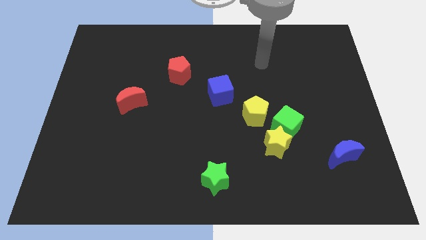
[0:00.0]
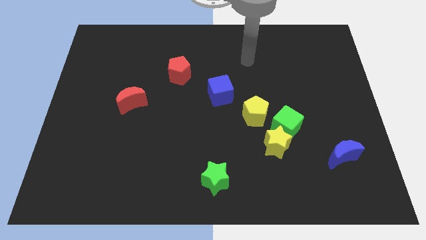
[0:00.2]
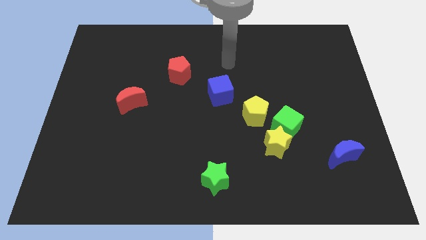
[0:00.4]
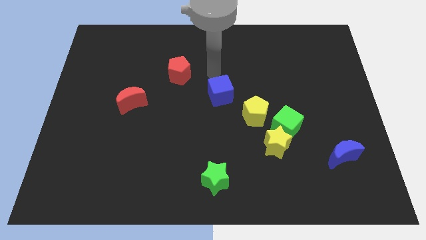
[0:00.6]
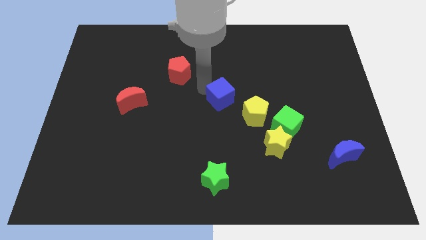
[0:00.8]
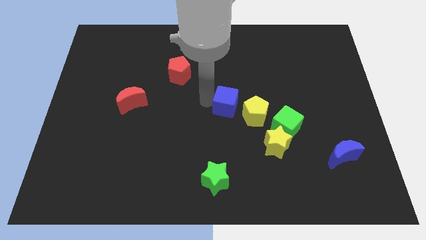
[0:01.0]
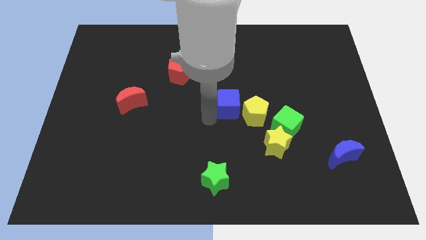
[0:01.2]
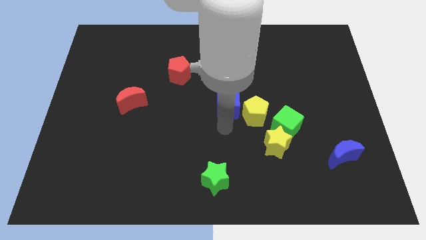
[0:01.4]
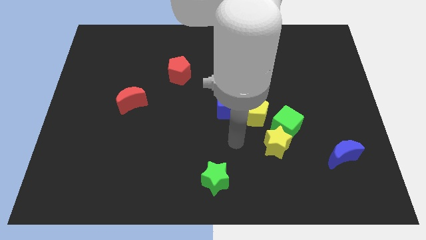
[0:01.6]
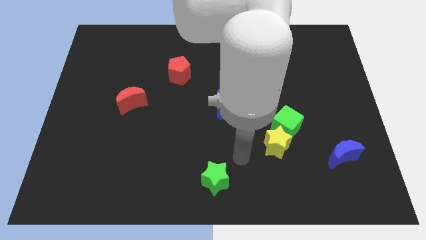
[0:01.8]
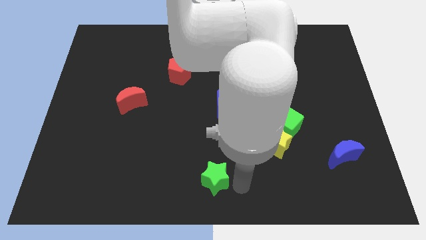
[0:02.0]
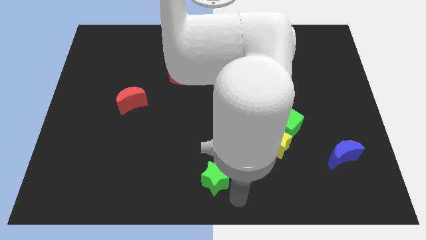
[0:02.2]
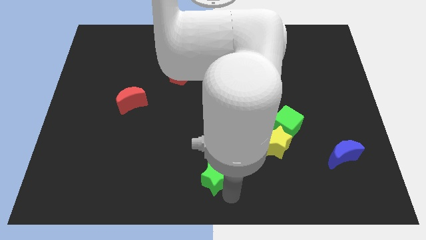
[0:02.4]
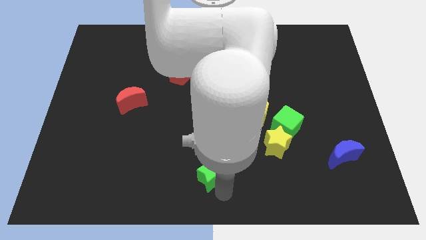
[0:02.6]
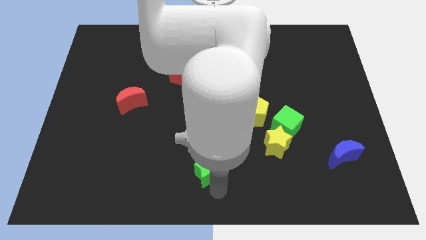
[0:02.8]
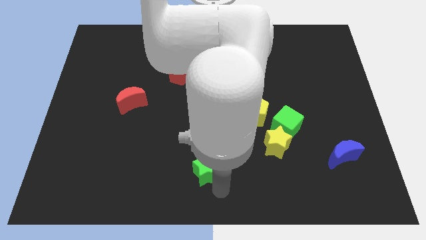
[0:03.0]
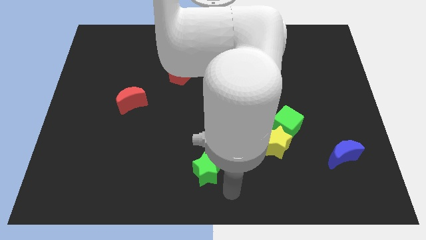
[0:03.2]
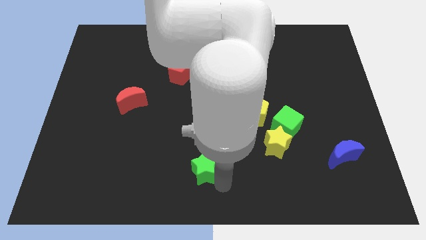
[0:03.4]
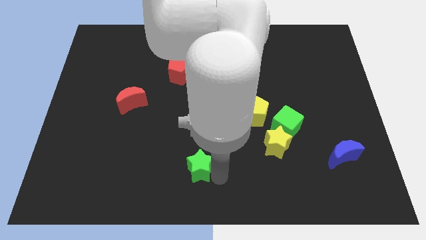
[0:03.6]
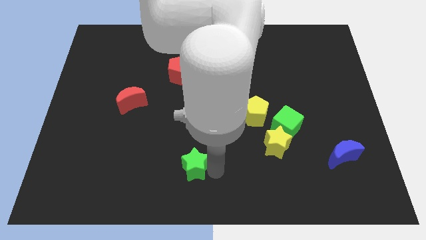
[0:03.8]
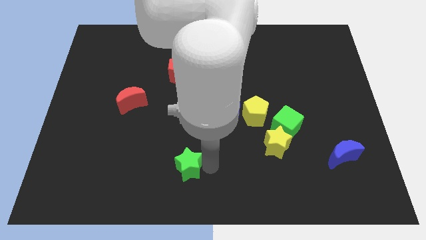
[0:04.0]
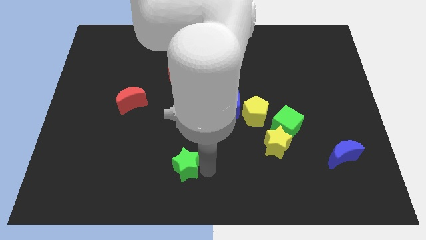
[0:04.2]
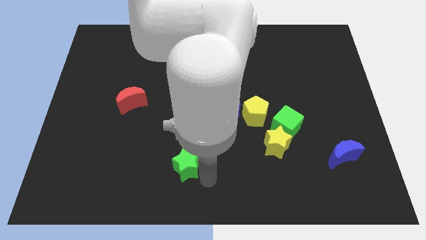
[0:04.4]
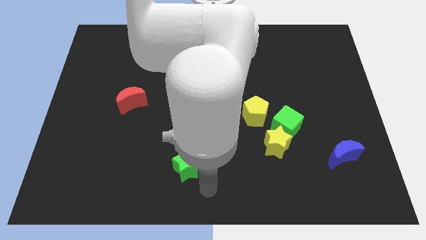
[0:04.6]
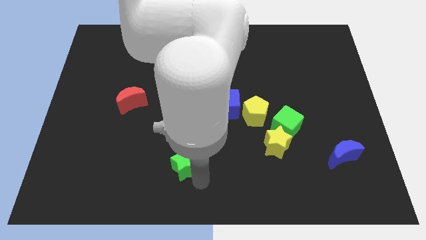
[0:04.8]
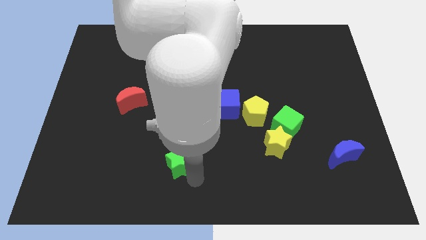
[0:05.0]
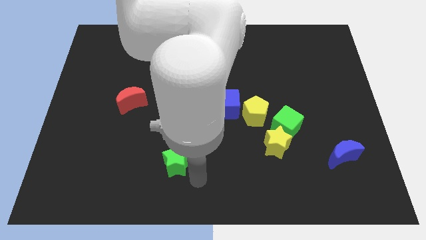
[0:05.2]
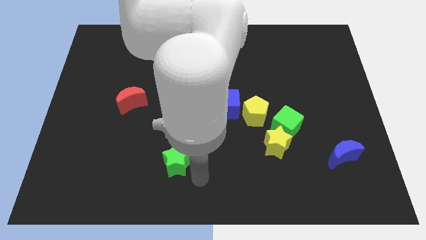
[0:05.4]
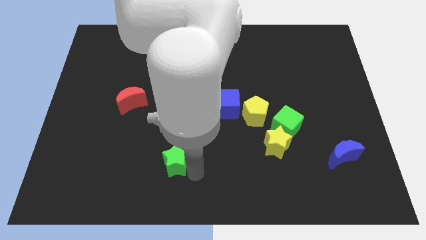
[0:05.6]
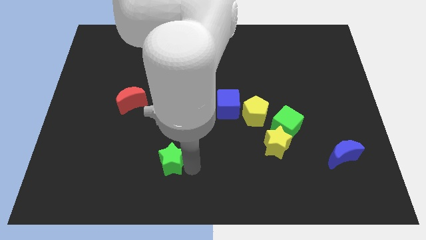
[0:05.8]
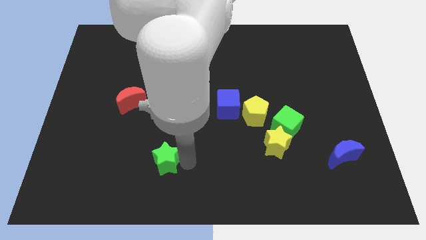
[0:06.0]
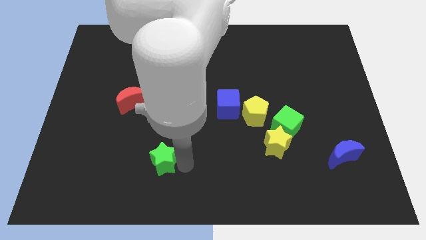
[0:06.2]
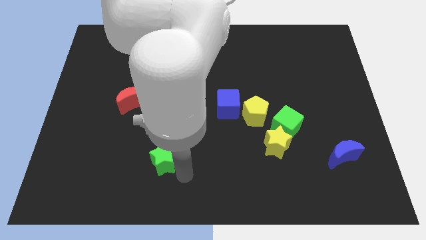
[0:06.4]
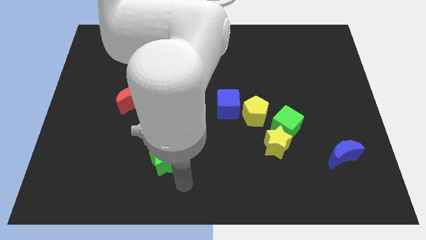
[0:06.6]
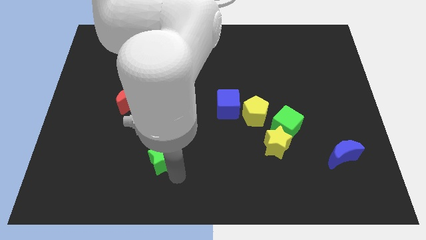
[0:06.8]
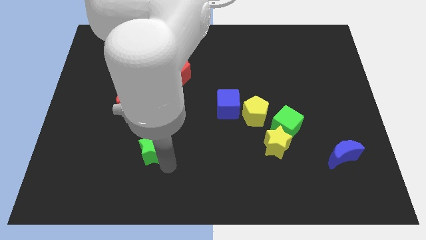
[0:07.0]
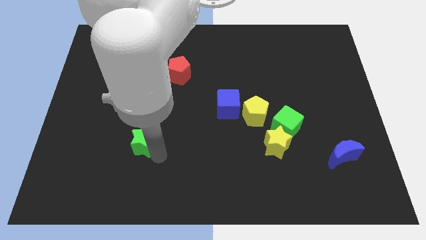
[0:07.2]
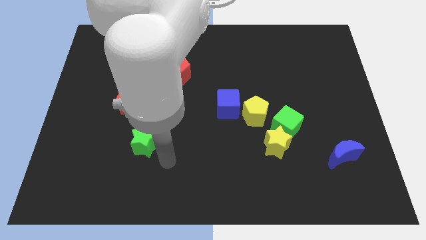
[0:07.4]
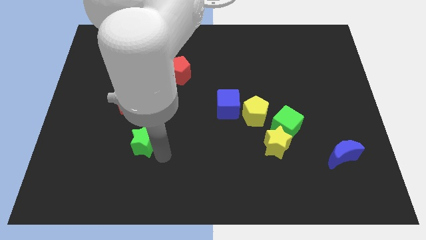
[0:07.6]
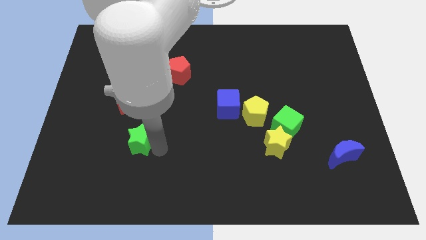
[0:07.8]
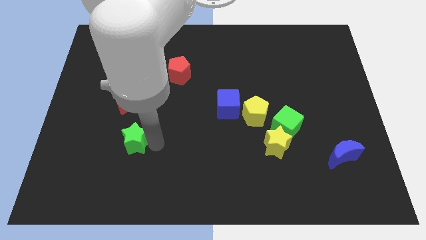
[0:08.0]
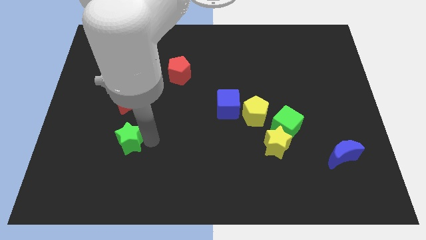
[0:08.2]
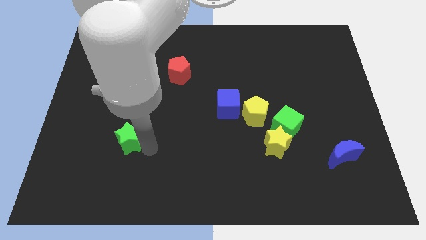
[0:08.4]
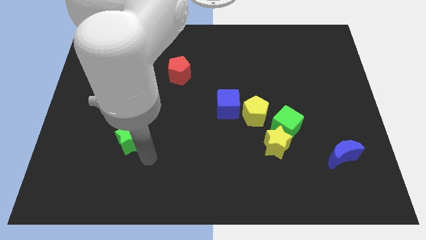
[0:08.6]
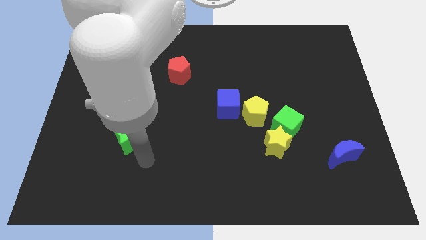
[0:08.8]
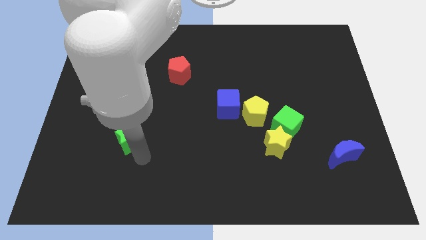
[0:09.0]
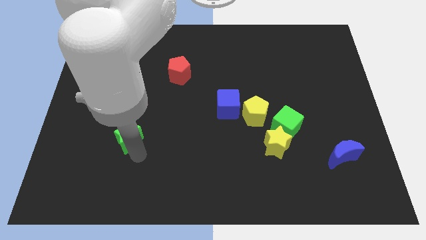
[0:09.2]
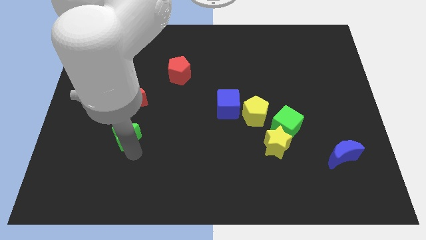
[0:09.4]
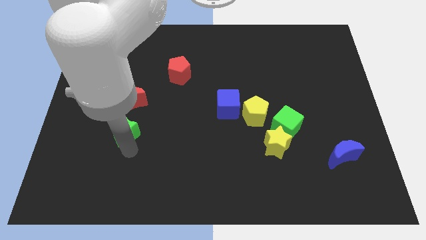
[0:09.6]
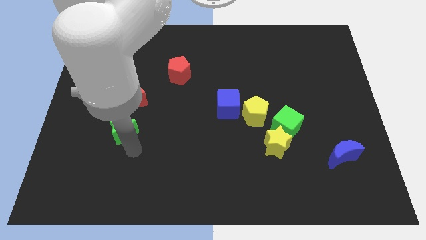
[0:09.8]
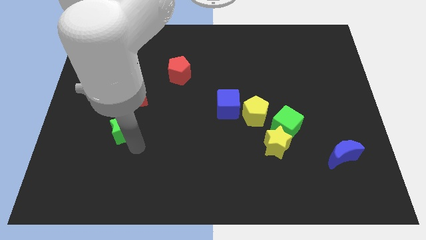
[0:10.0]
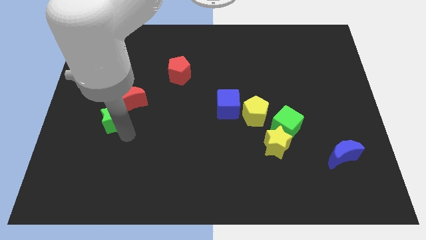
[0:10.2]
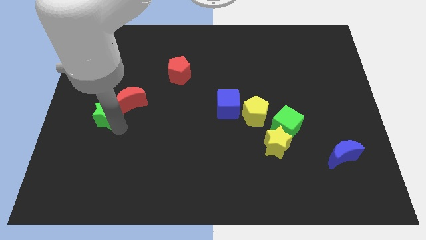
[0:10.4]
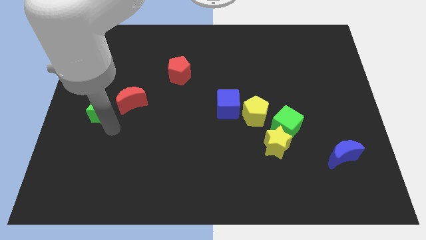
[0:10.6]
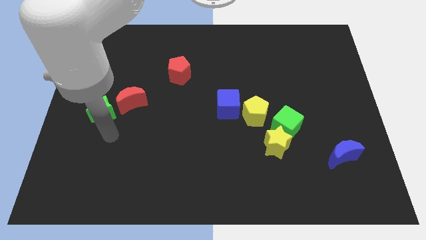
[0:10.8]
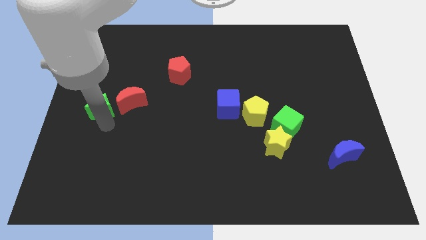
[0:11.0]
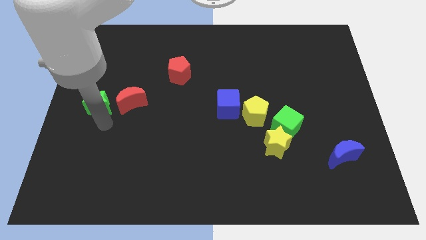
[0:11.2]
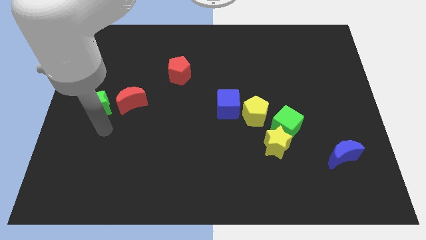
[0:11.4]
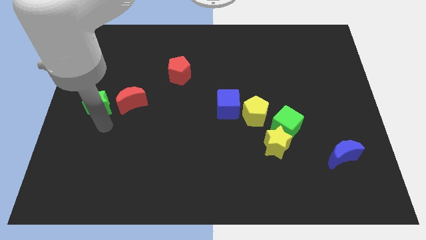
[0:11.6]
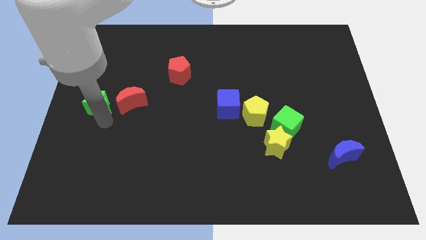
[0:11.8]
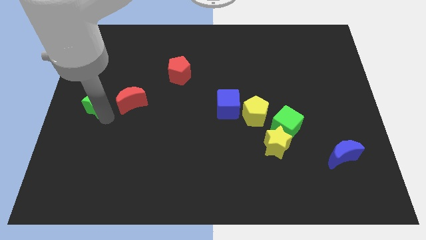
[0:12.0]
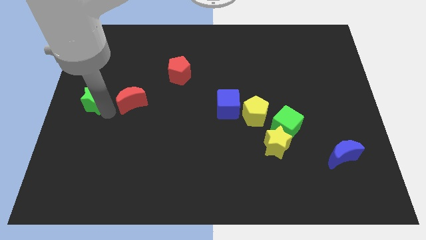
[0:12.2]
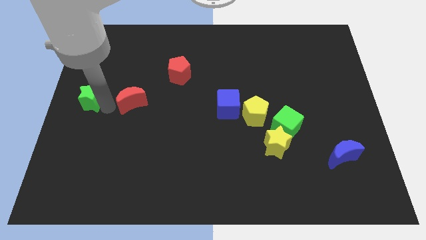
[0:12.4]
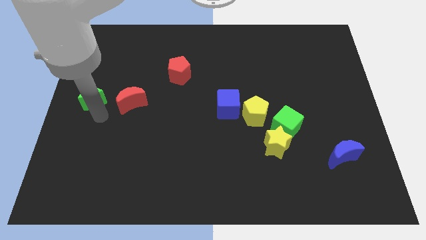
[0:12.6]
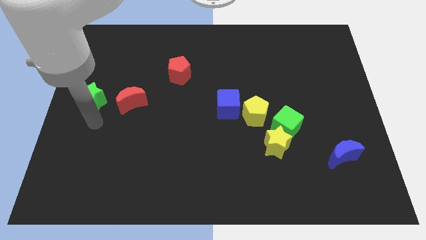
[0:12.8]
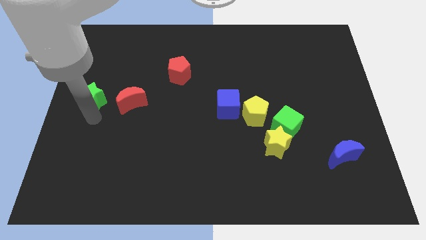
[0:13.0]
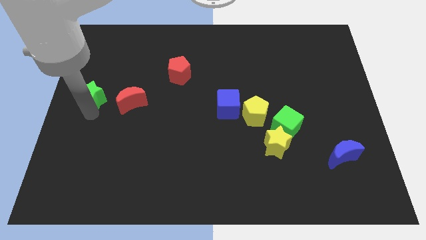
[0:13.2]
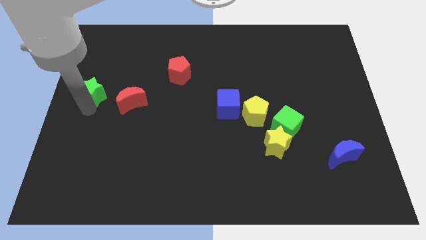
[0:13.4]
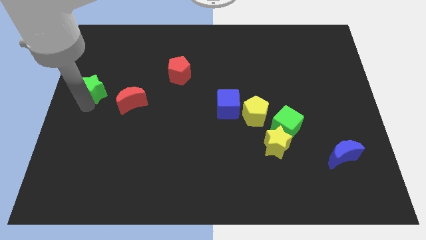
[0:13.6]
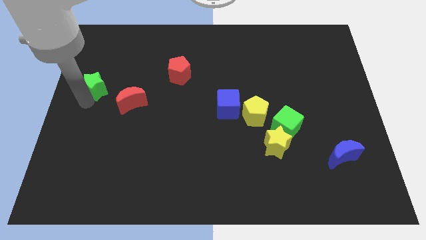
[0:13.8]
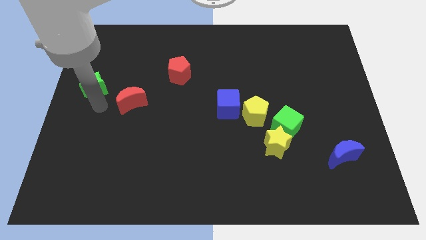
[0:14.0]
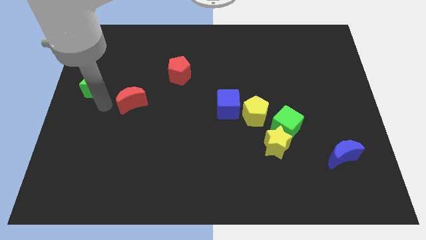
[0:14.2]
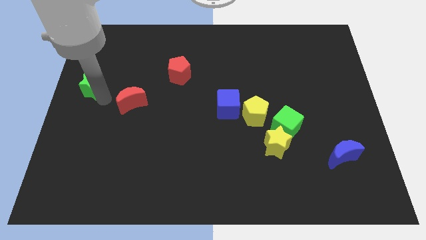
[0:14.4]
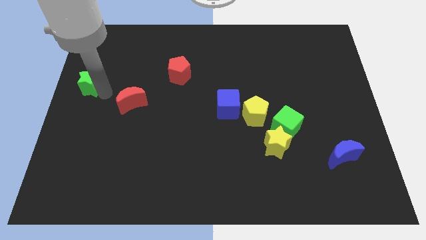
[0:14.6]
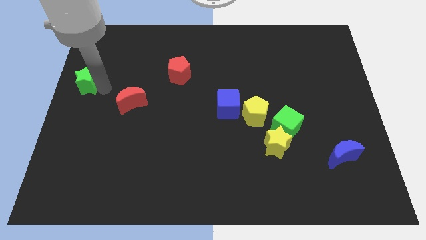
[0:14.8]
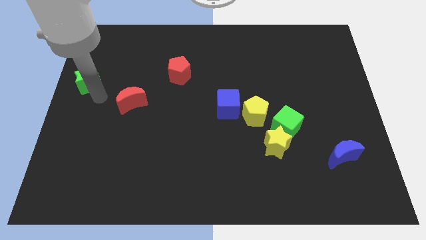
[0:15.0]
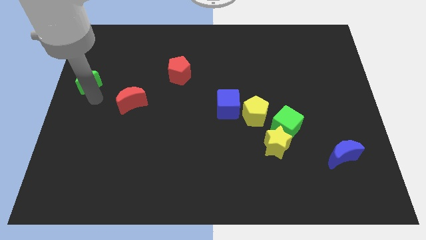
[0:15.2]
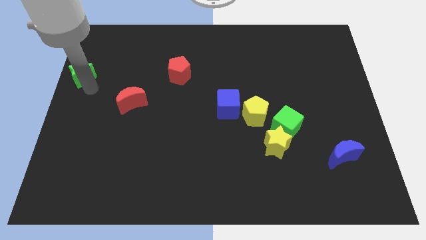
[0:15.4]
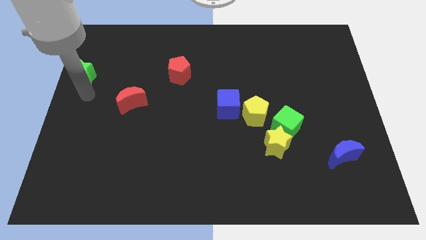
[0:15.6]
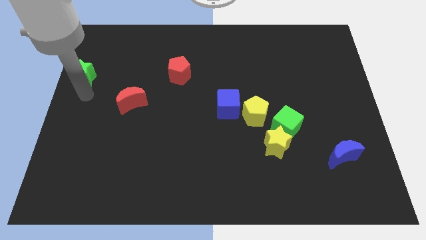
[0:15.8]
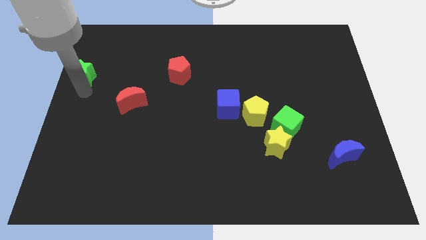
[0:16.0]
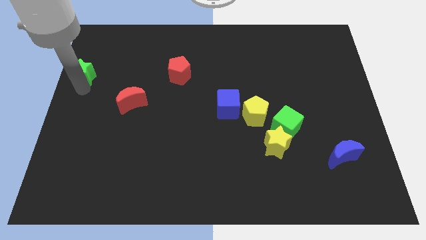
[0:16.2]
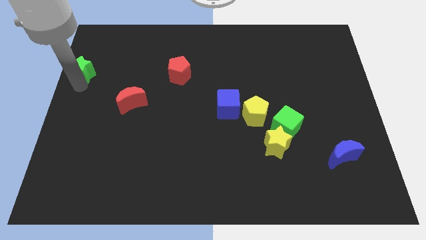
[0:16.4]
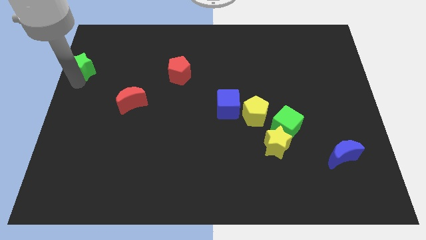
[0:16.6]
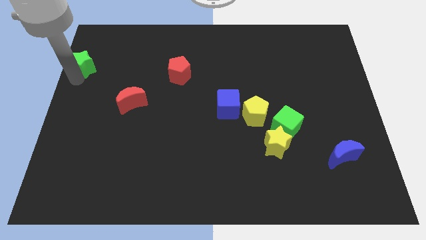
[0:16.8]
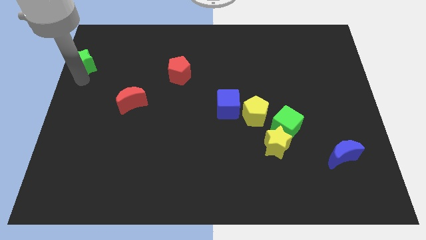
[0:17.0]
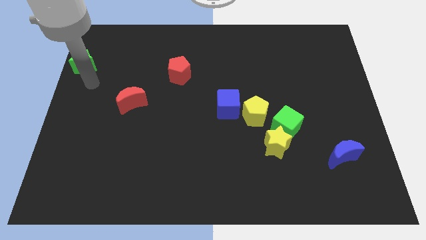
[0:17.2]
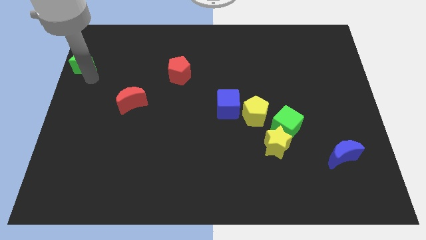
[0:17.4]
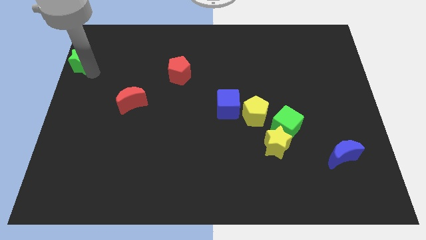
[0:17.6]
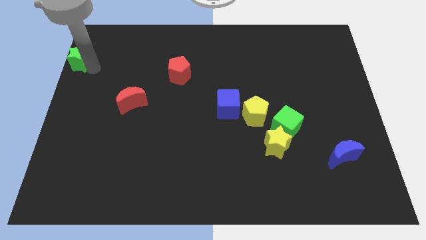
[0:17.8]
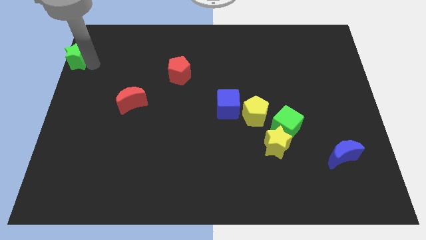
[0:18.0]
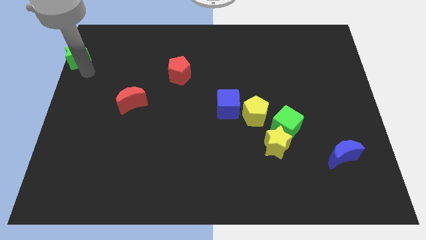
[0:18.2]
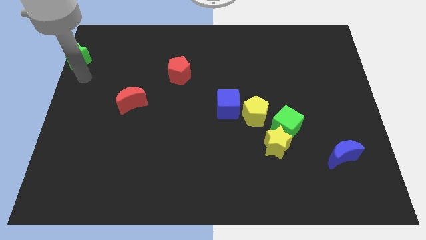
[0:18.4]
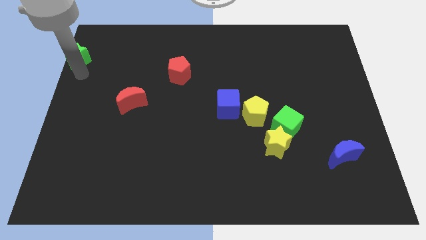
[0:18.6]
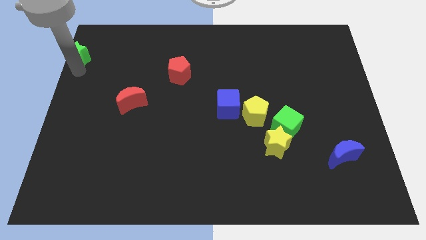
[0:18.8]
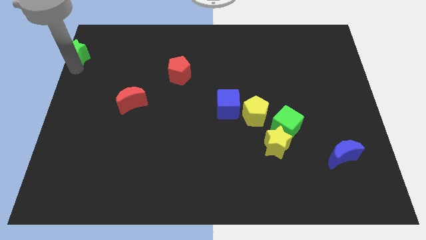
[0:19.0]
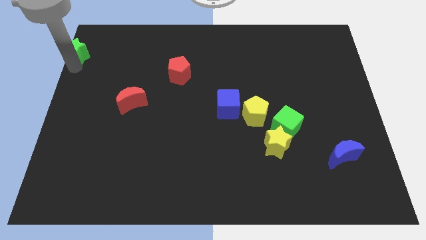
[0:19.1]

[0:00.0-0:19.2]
put the green star to the upper left corner
